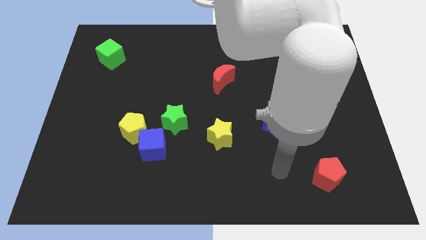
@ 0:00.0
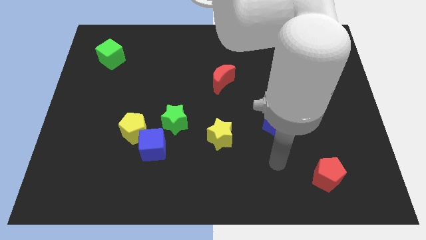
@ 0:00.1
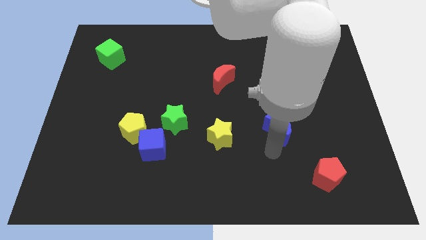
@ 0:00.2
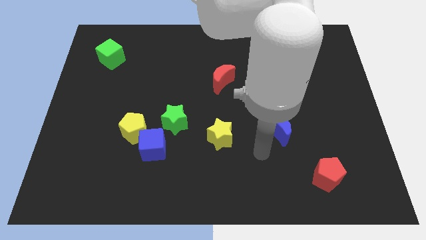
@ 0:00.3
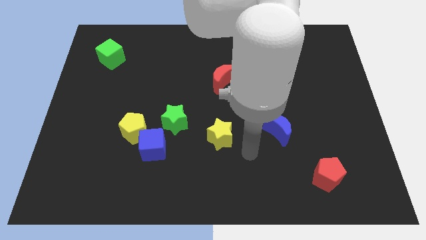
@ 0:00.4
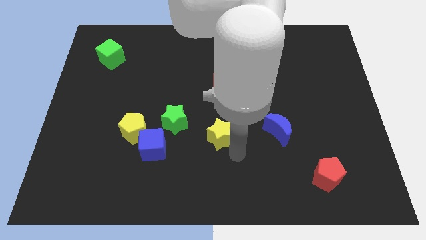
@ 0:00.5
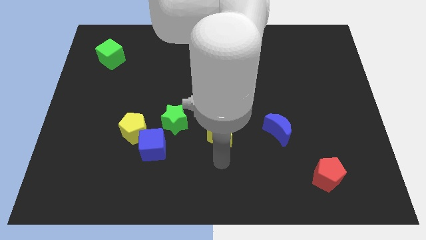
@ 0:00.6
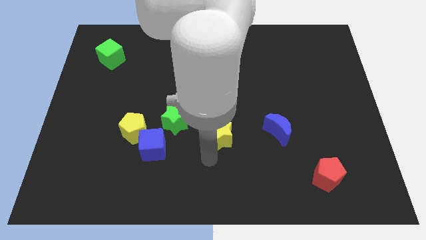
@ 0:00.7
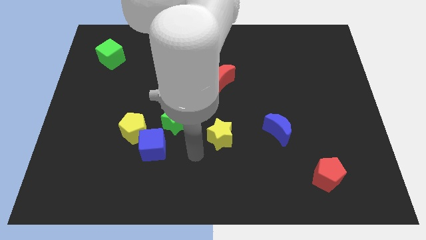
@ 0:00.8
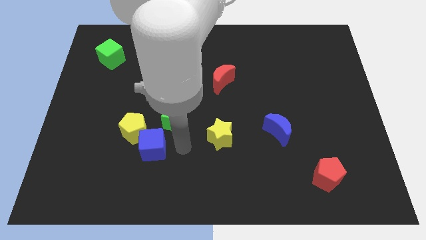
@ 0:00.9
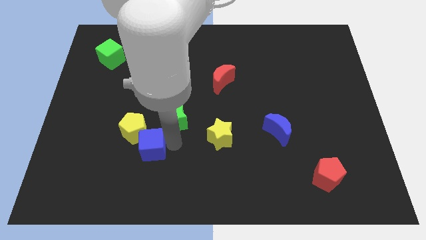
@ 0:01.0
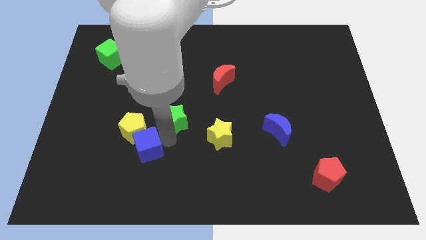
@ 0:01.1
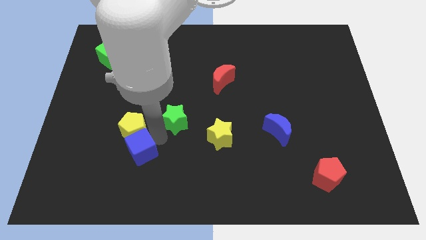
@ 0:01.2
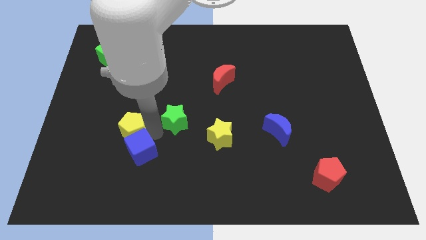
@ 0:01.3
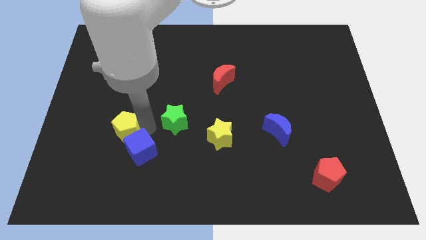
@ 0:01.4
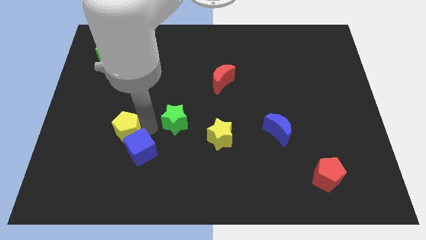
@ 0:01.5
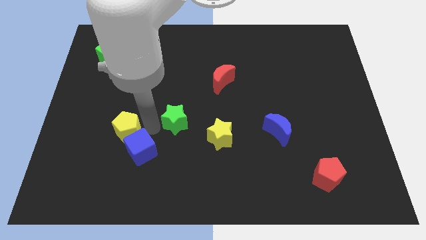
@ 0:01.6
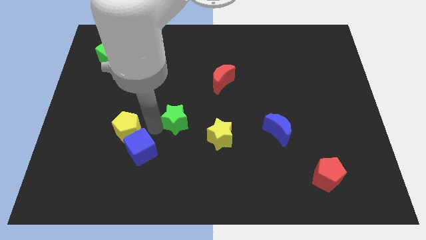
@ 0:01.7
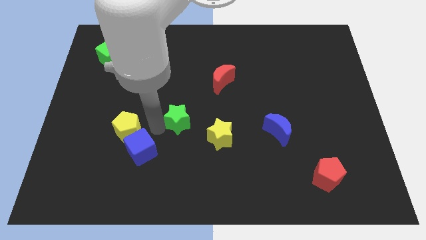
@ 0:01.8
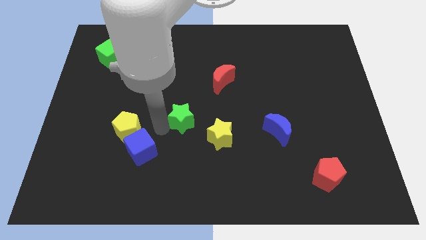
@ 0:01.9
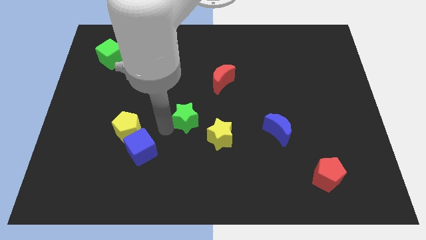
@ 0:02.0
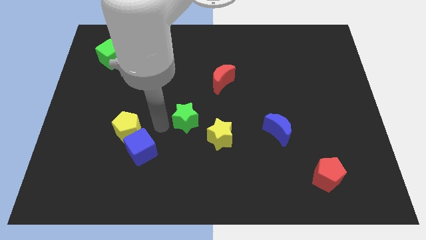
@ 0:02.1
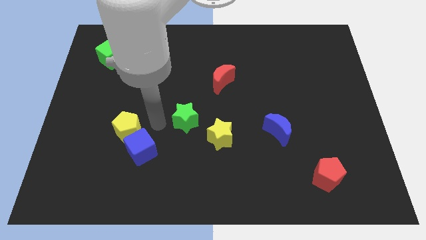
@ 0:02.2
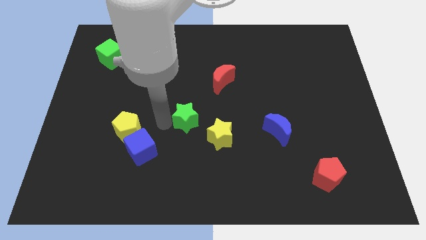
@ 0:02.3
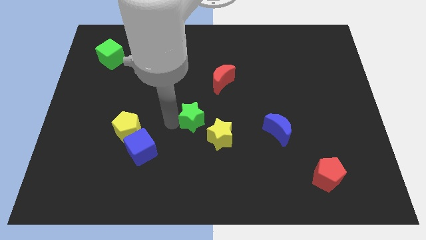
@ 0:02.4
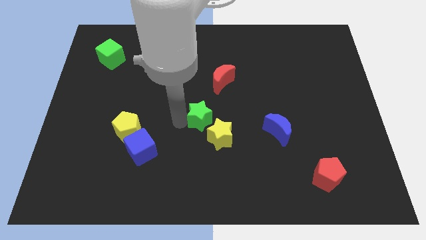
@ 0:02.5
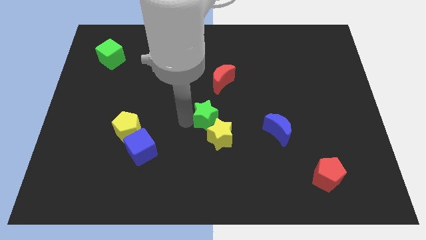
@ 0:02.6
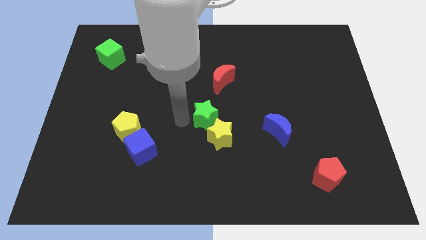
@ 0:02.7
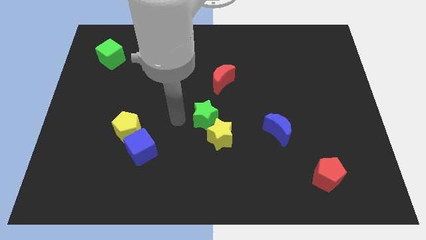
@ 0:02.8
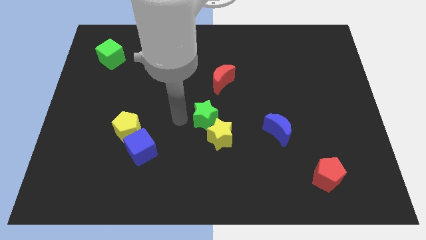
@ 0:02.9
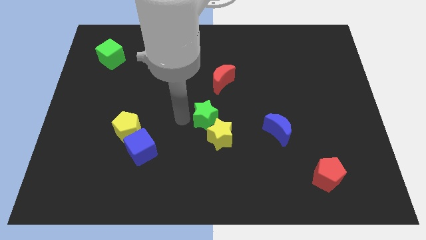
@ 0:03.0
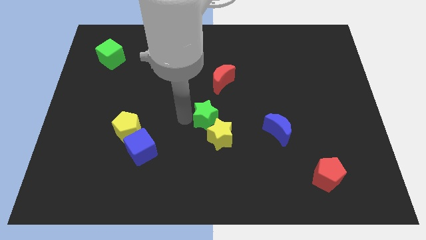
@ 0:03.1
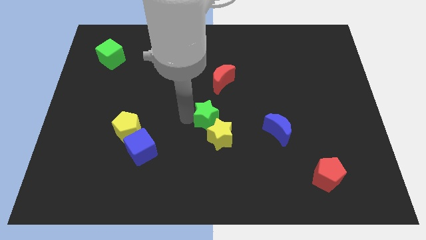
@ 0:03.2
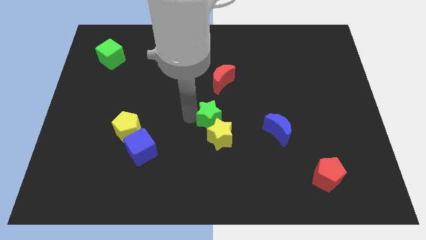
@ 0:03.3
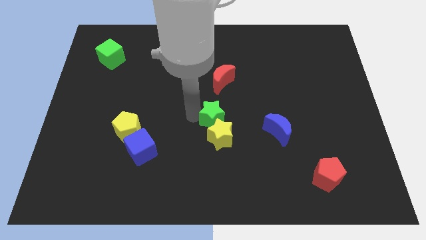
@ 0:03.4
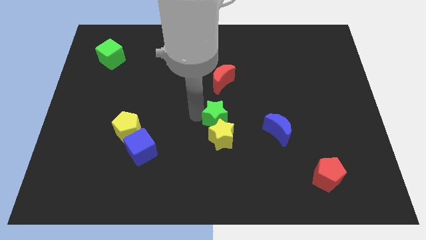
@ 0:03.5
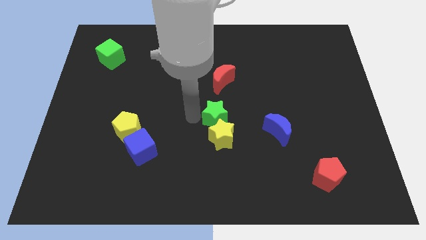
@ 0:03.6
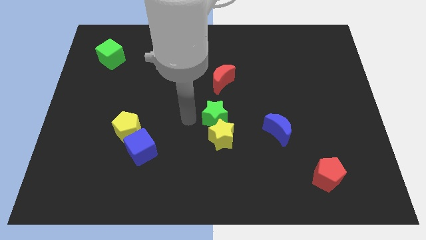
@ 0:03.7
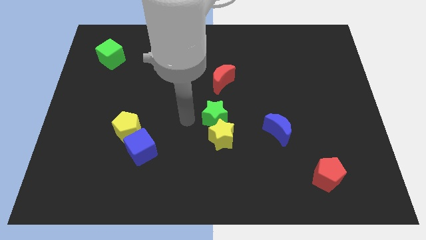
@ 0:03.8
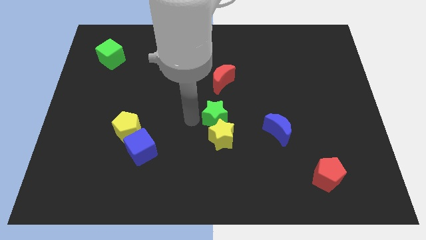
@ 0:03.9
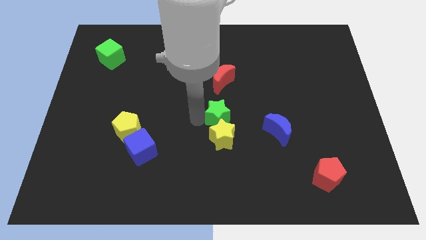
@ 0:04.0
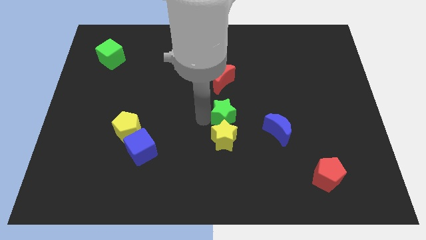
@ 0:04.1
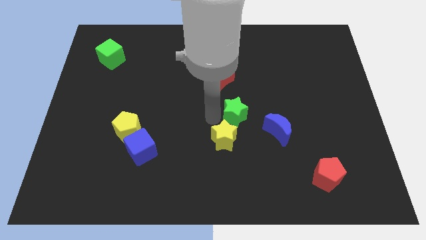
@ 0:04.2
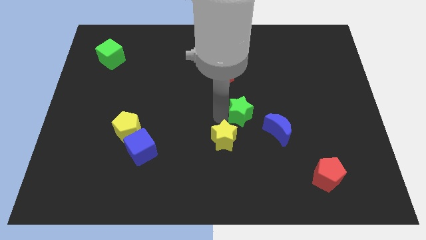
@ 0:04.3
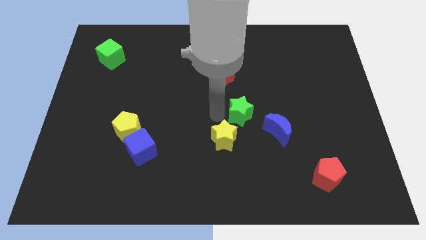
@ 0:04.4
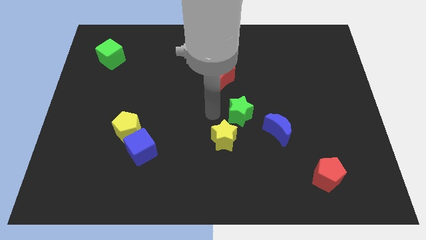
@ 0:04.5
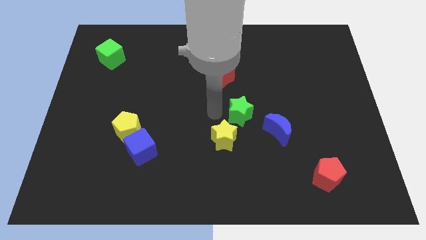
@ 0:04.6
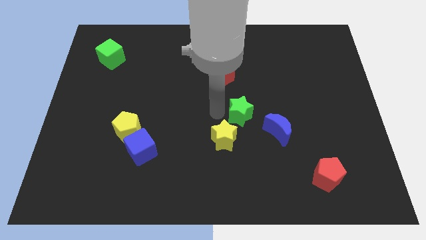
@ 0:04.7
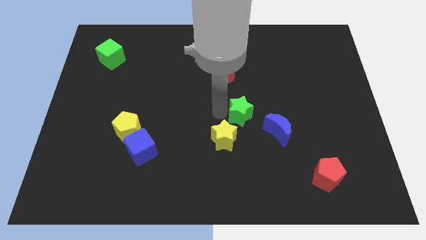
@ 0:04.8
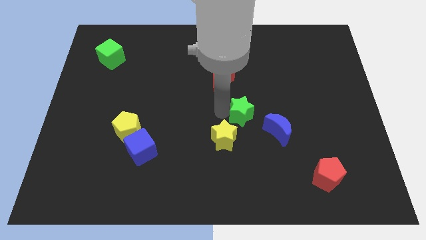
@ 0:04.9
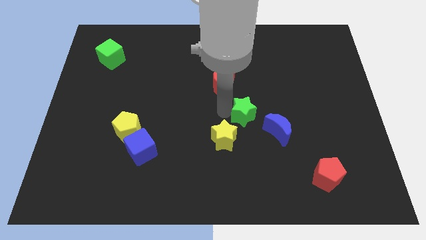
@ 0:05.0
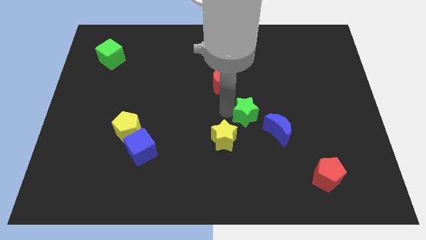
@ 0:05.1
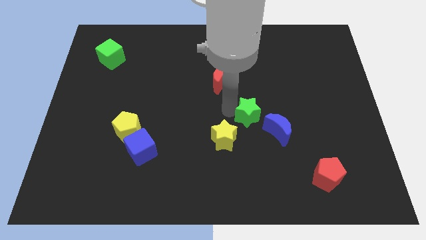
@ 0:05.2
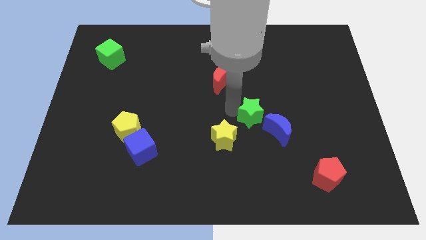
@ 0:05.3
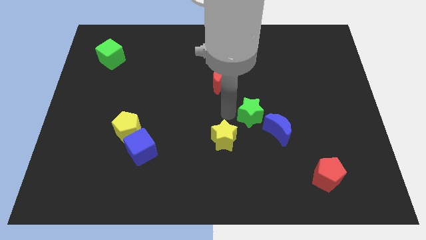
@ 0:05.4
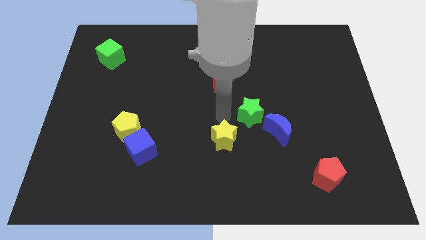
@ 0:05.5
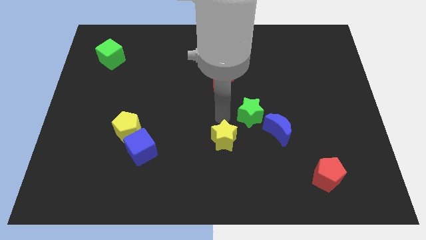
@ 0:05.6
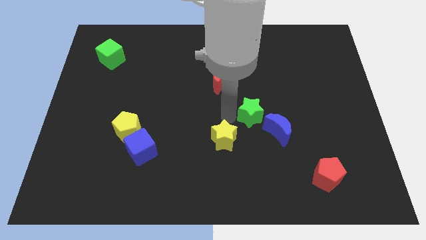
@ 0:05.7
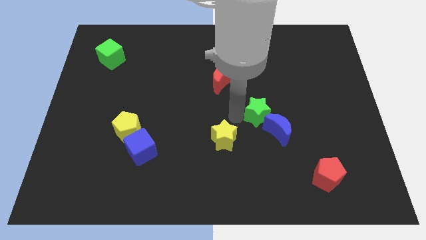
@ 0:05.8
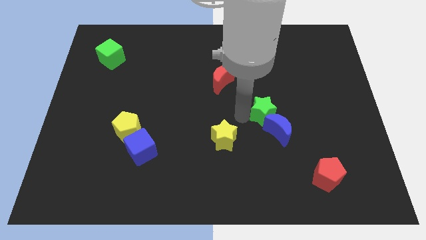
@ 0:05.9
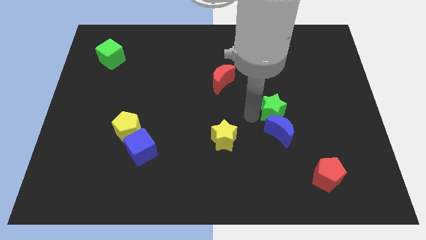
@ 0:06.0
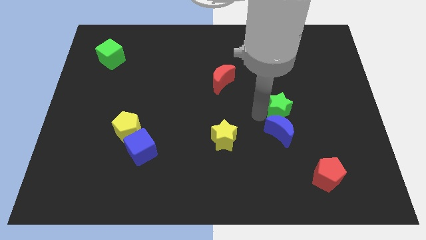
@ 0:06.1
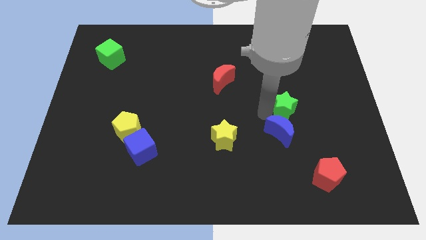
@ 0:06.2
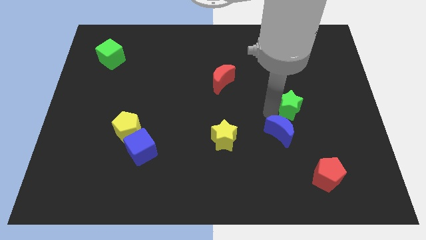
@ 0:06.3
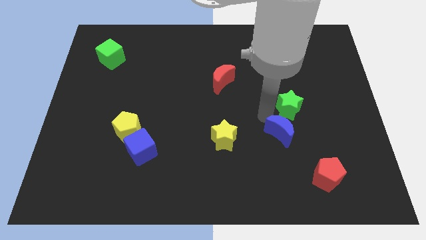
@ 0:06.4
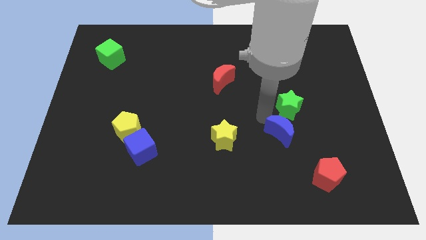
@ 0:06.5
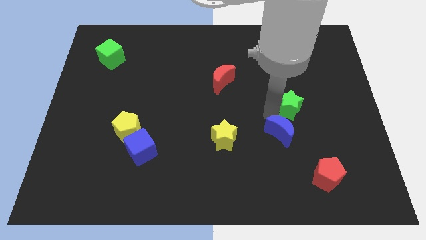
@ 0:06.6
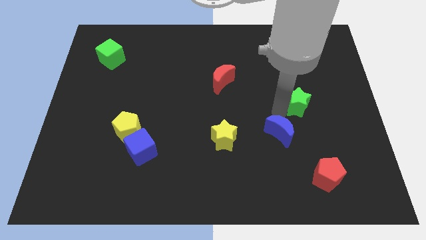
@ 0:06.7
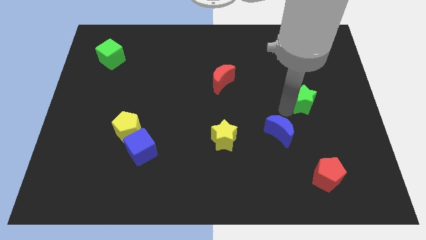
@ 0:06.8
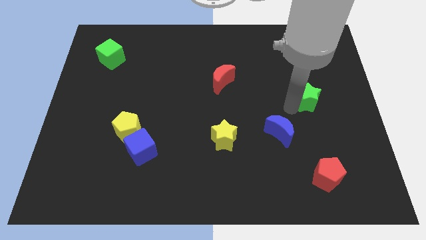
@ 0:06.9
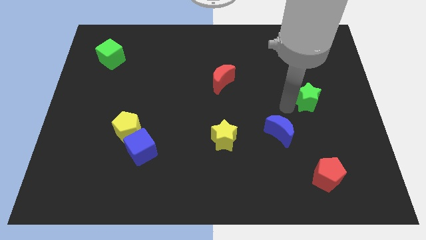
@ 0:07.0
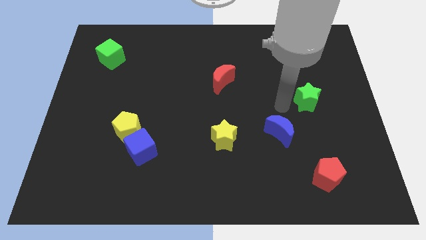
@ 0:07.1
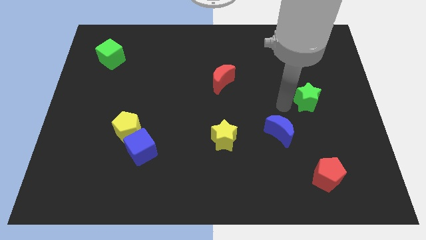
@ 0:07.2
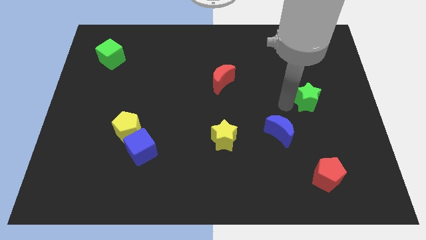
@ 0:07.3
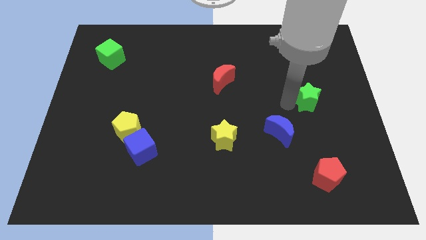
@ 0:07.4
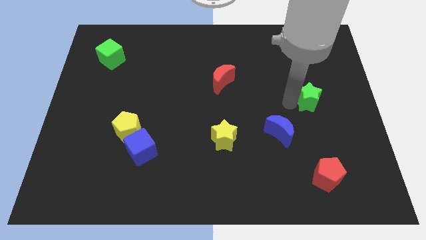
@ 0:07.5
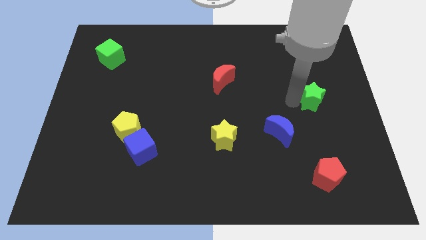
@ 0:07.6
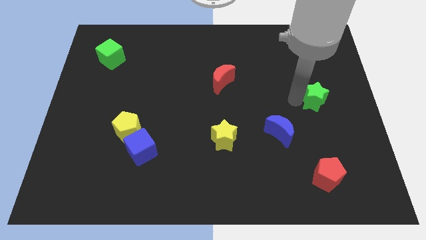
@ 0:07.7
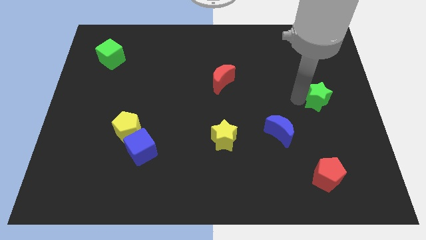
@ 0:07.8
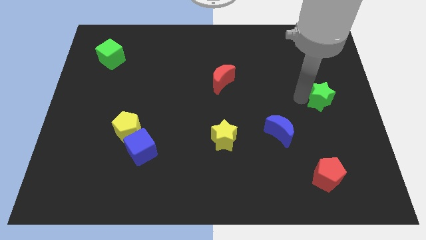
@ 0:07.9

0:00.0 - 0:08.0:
put the green star to the right side of the board

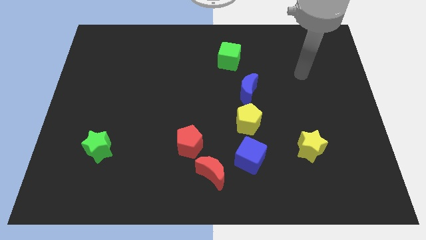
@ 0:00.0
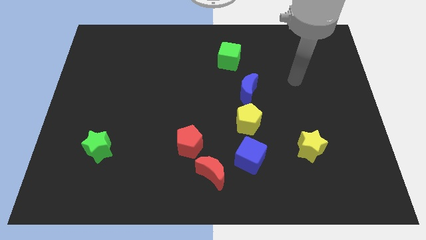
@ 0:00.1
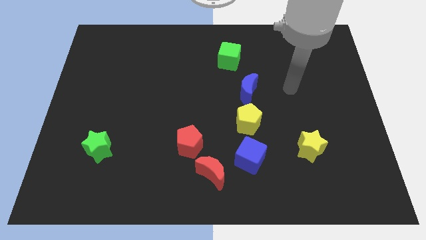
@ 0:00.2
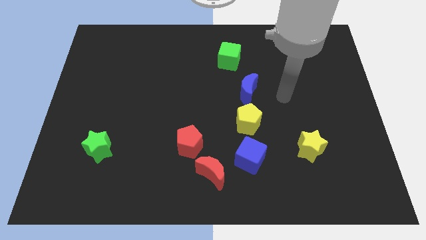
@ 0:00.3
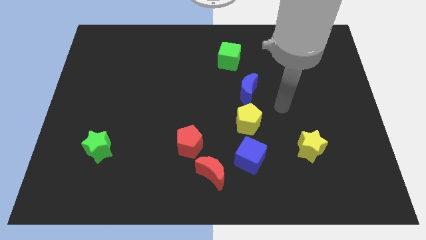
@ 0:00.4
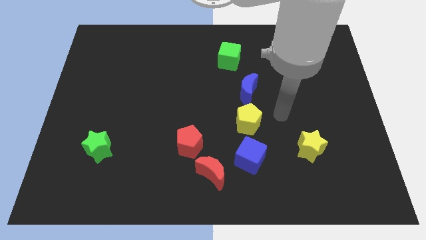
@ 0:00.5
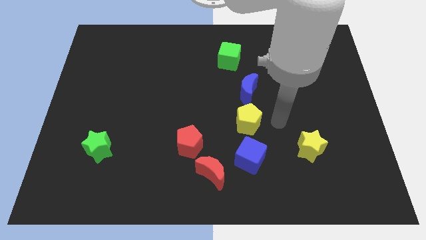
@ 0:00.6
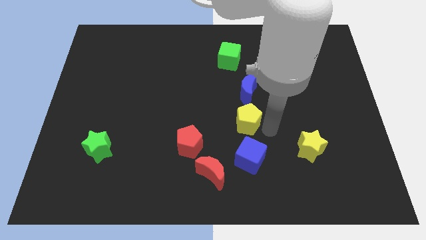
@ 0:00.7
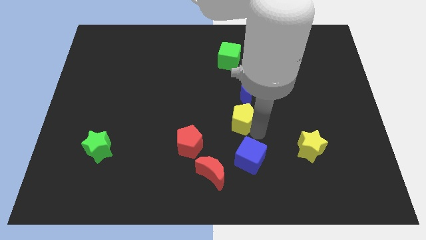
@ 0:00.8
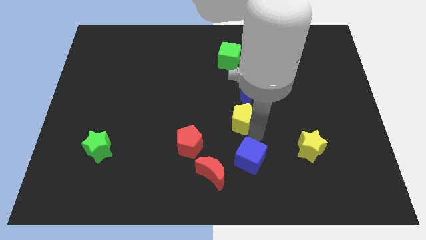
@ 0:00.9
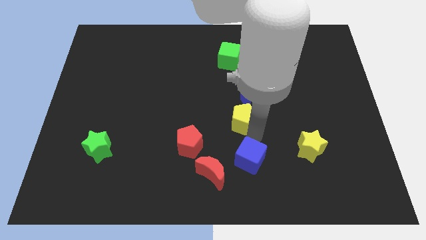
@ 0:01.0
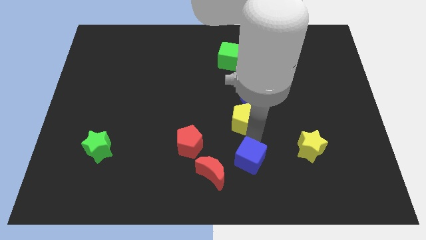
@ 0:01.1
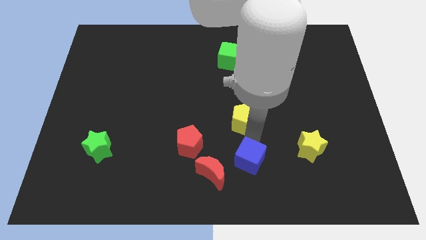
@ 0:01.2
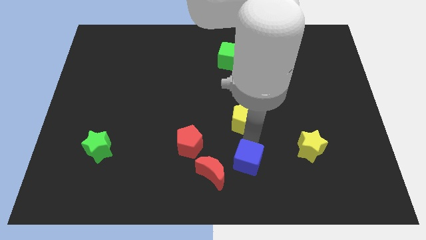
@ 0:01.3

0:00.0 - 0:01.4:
move the blue cube to the bottom
